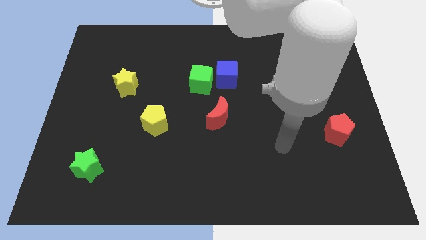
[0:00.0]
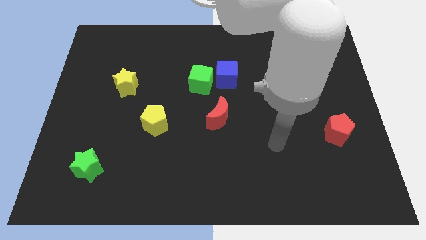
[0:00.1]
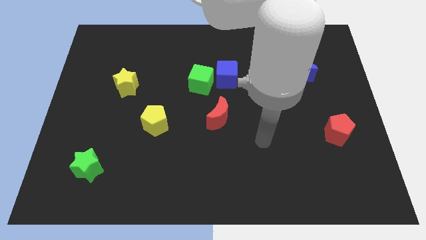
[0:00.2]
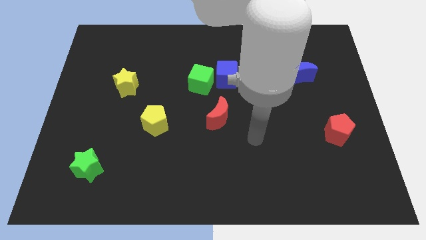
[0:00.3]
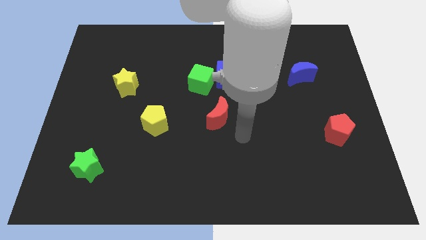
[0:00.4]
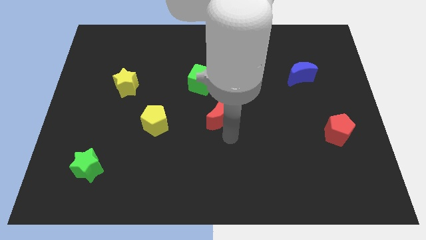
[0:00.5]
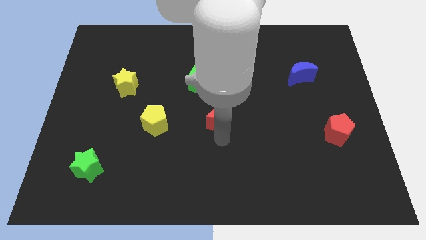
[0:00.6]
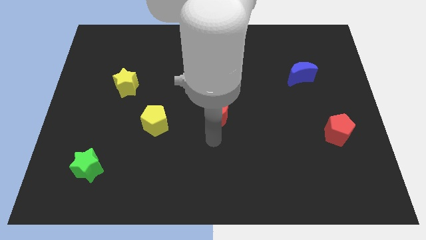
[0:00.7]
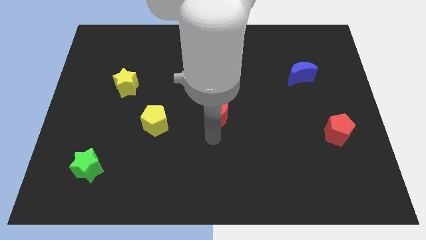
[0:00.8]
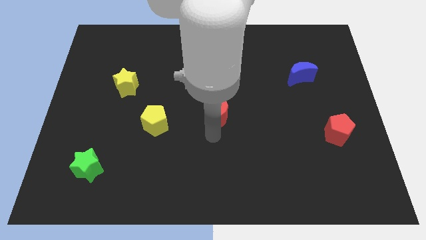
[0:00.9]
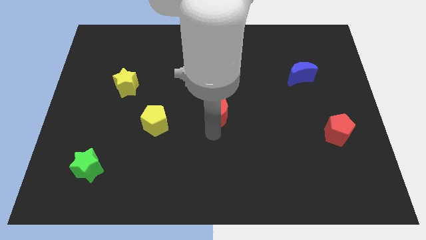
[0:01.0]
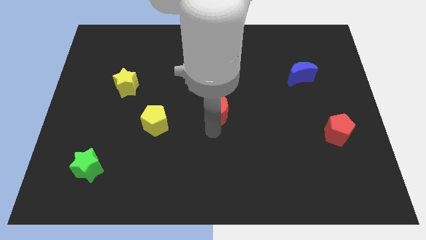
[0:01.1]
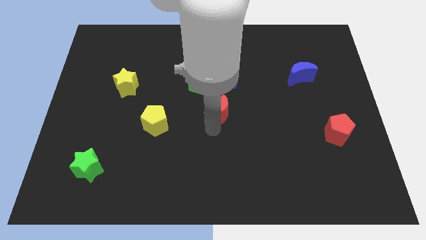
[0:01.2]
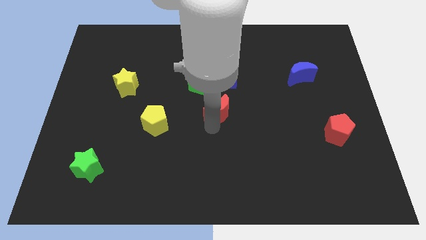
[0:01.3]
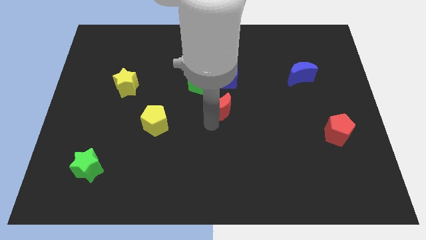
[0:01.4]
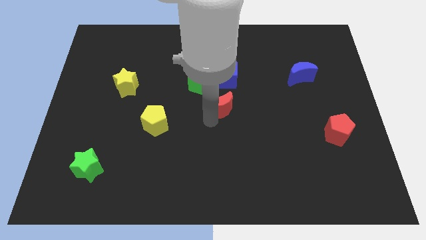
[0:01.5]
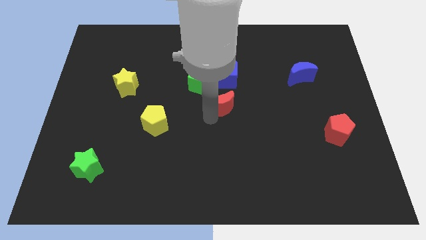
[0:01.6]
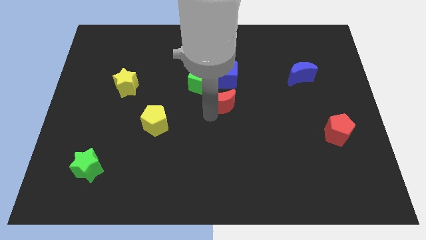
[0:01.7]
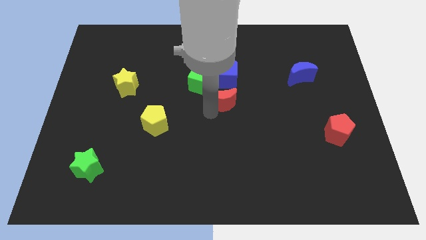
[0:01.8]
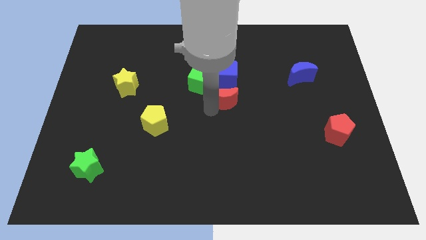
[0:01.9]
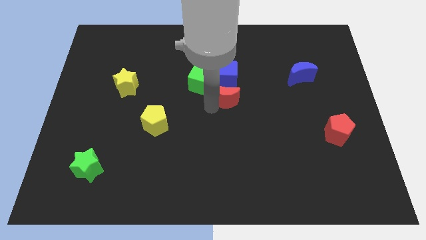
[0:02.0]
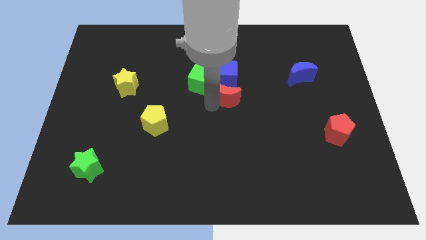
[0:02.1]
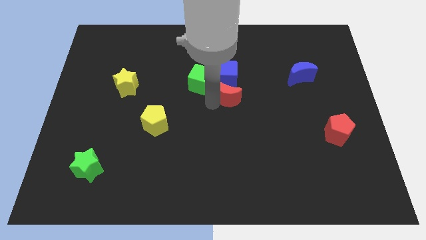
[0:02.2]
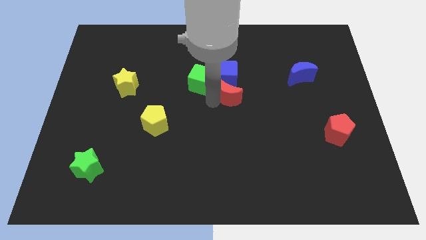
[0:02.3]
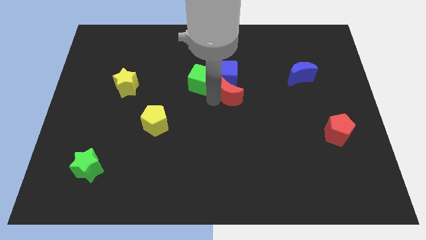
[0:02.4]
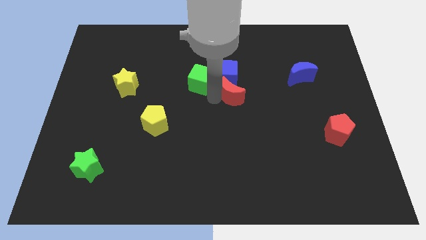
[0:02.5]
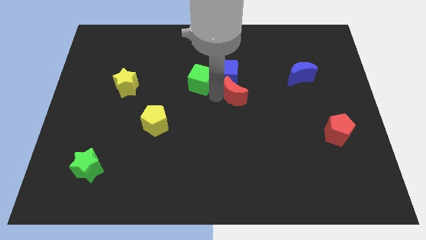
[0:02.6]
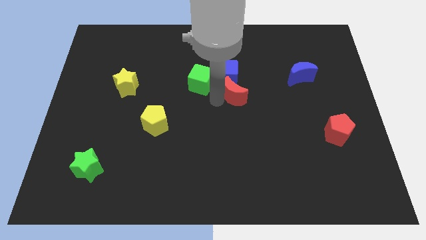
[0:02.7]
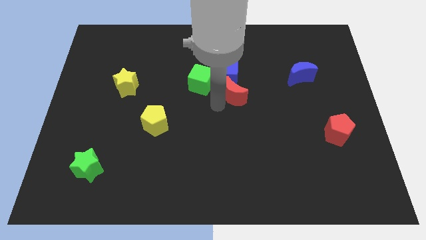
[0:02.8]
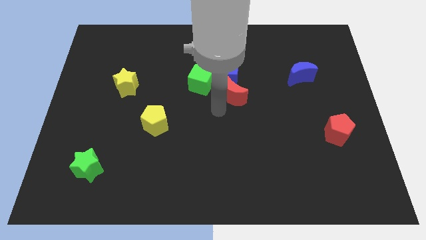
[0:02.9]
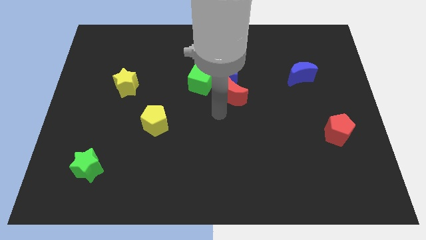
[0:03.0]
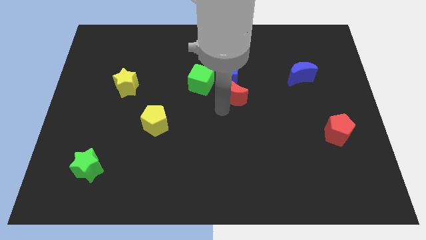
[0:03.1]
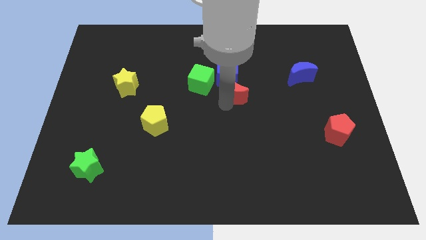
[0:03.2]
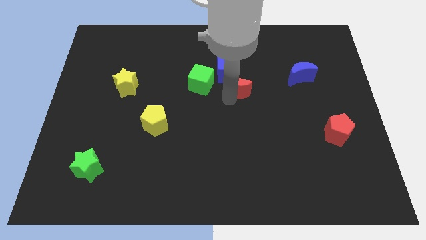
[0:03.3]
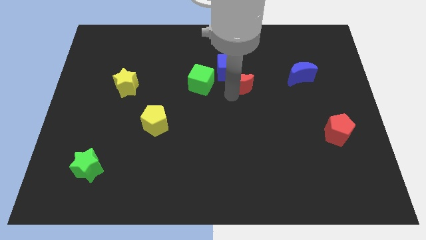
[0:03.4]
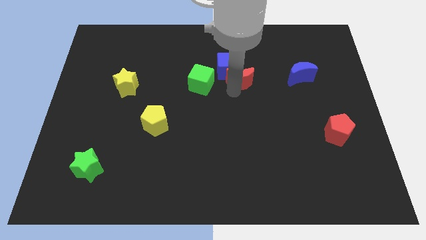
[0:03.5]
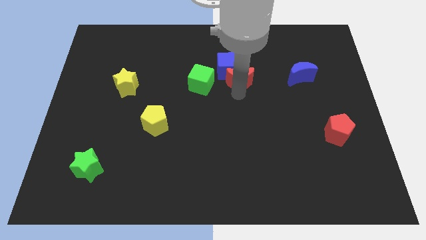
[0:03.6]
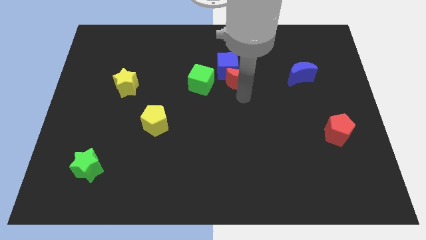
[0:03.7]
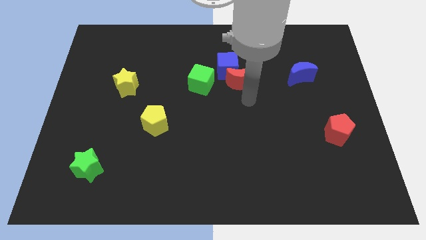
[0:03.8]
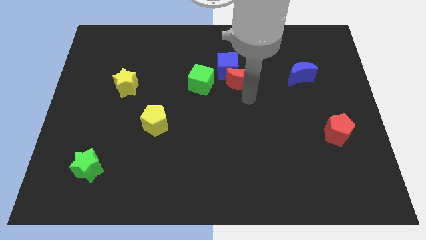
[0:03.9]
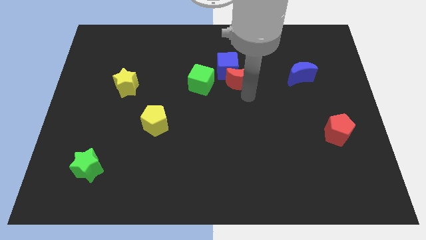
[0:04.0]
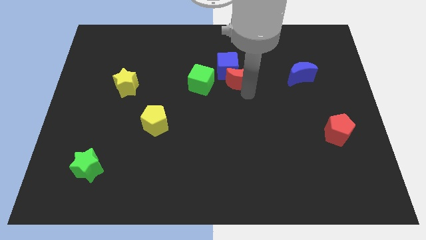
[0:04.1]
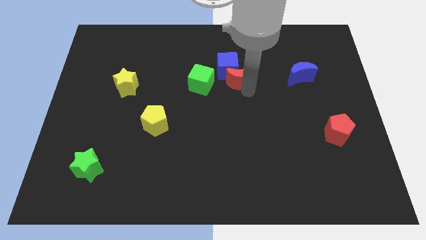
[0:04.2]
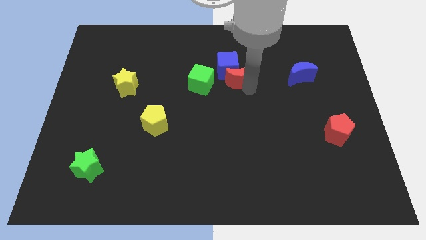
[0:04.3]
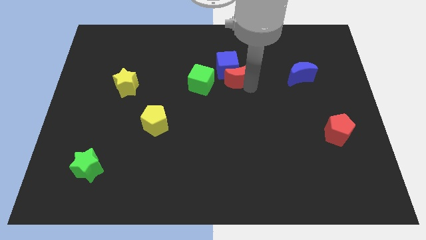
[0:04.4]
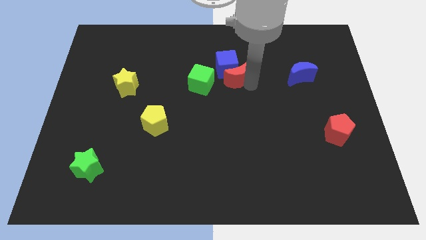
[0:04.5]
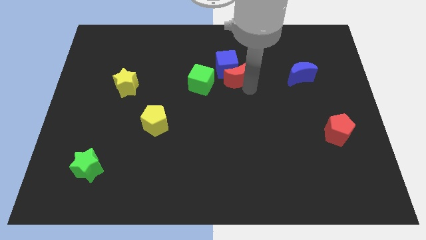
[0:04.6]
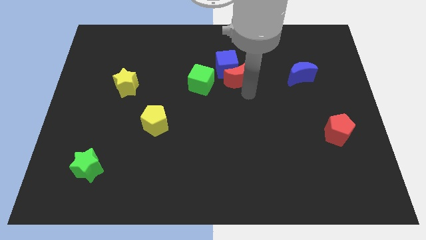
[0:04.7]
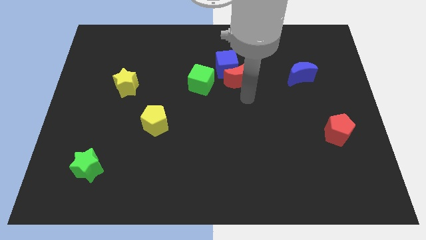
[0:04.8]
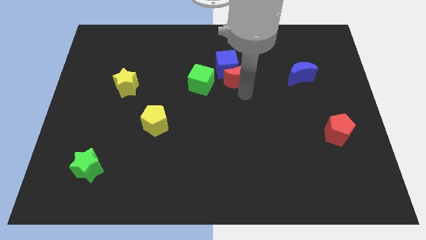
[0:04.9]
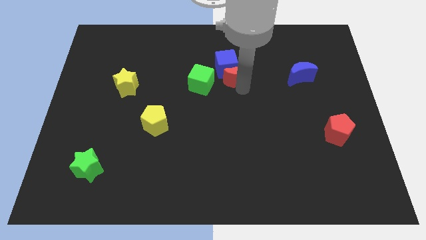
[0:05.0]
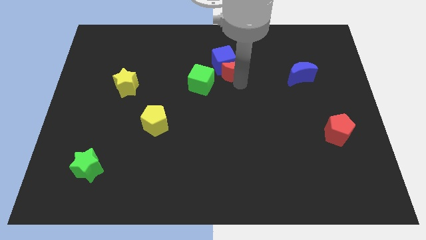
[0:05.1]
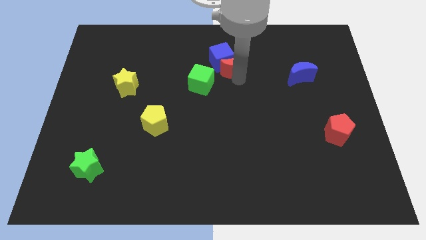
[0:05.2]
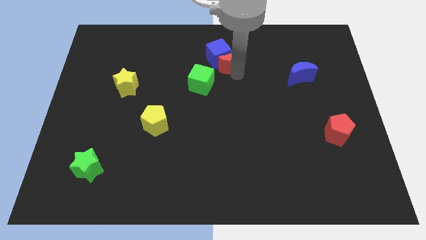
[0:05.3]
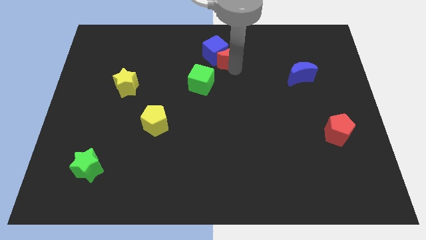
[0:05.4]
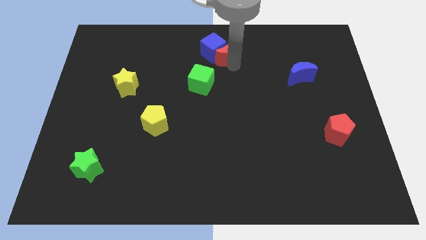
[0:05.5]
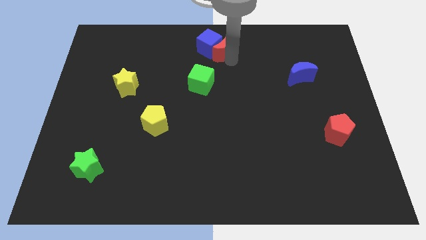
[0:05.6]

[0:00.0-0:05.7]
move the red moon to the top
